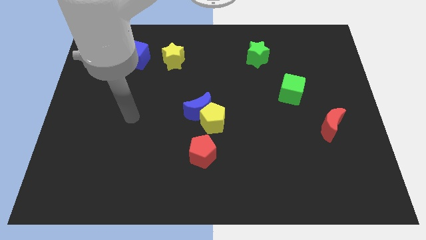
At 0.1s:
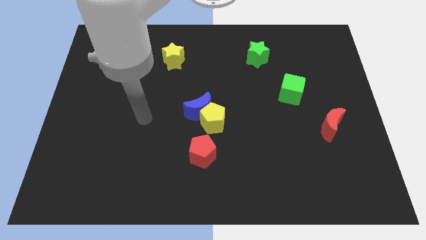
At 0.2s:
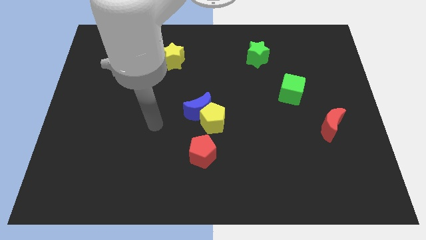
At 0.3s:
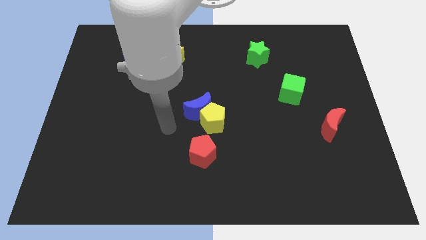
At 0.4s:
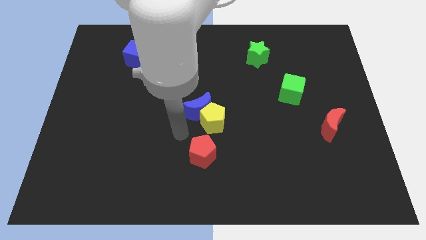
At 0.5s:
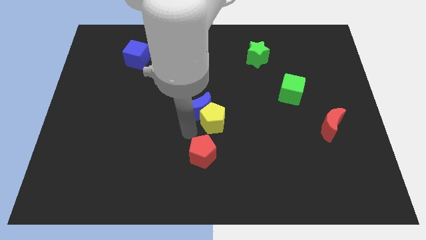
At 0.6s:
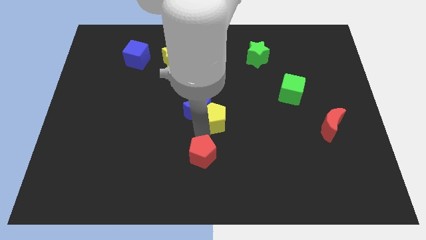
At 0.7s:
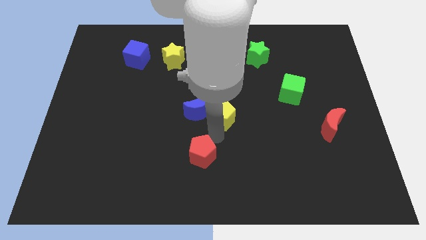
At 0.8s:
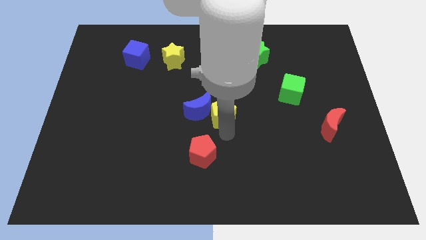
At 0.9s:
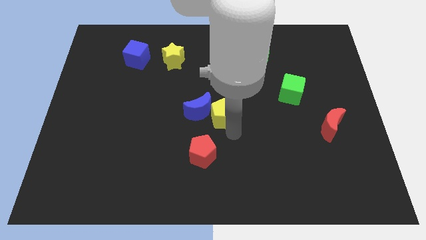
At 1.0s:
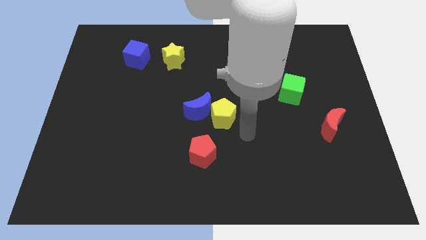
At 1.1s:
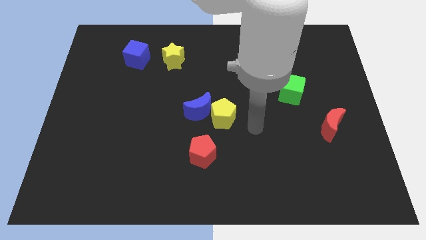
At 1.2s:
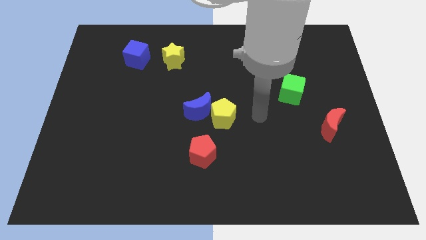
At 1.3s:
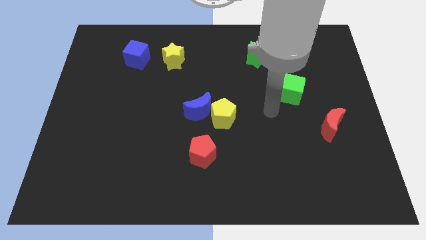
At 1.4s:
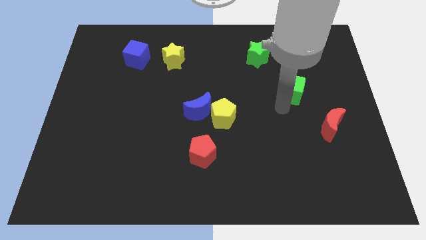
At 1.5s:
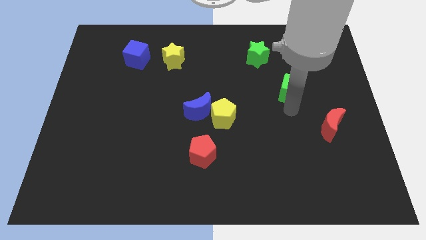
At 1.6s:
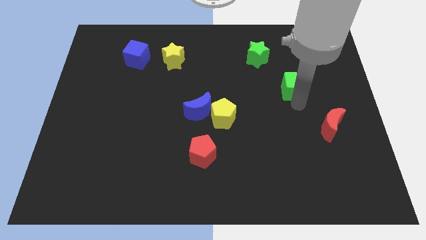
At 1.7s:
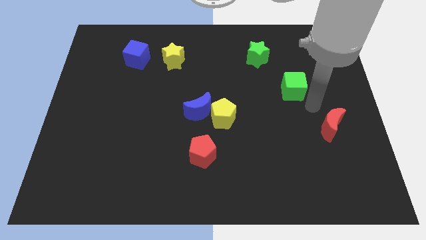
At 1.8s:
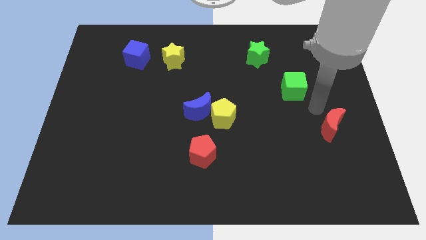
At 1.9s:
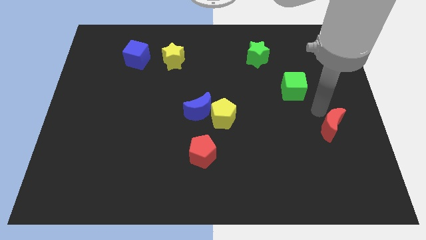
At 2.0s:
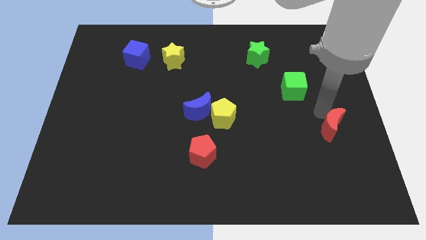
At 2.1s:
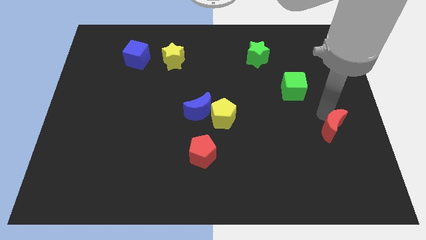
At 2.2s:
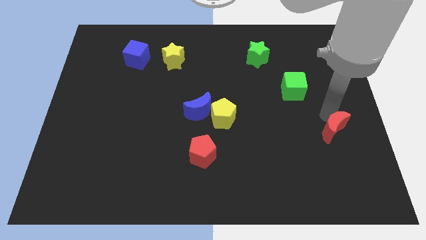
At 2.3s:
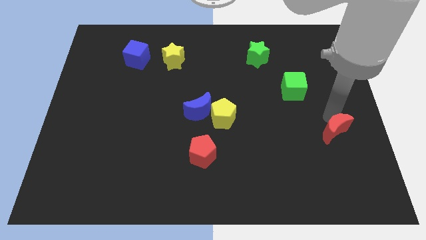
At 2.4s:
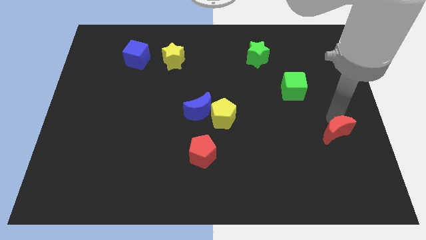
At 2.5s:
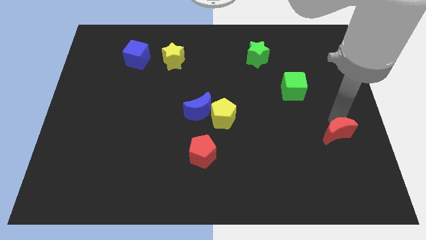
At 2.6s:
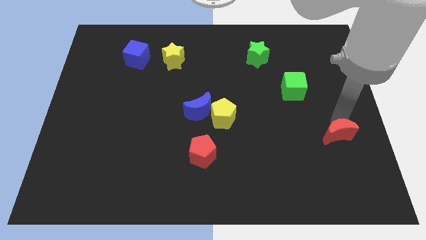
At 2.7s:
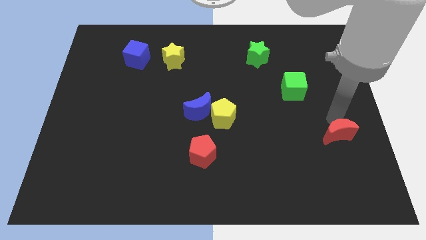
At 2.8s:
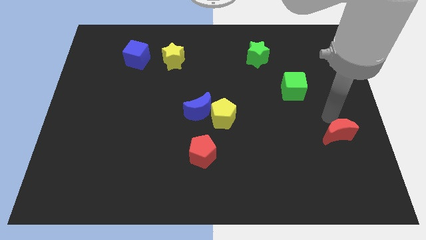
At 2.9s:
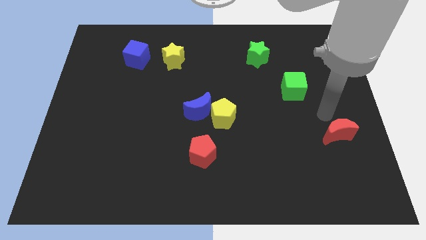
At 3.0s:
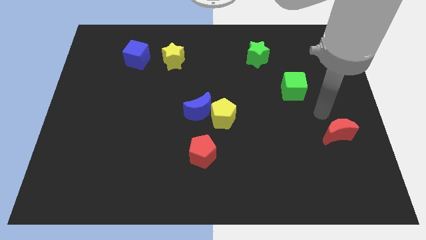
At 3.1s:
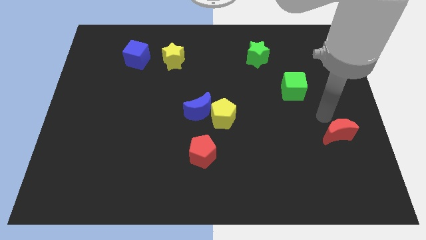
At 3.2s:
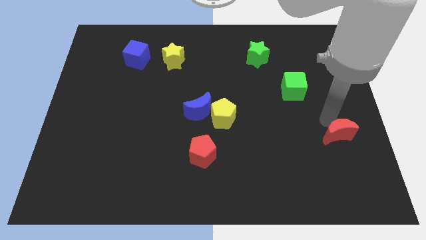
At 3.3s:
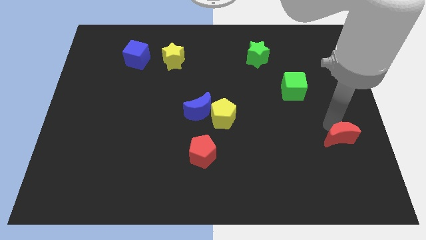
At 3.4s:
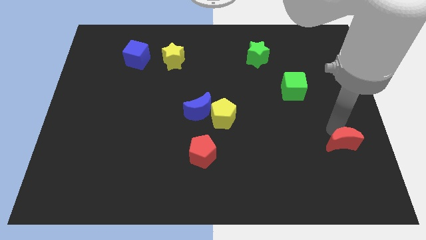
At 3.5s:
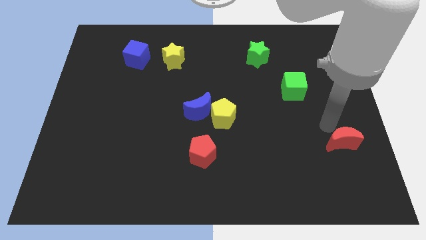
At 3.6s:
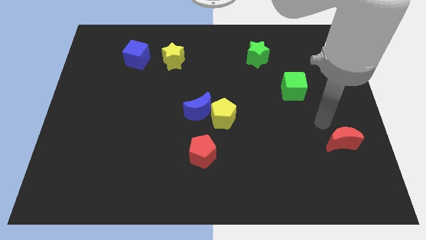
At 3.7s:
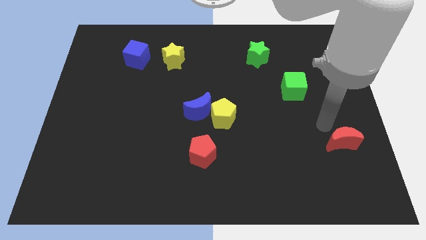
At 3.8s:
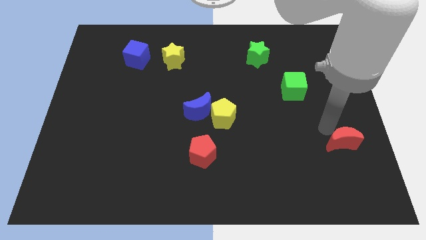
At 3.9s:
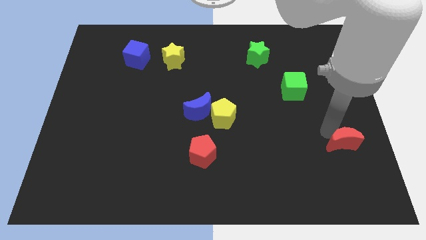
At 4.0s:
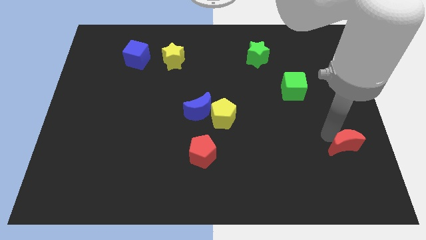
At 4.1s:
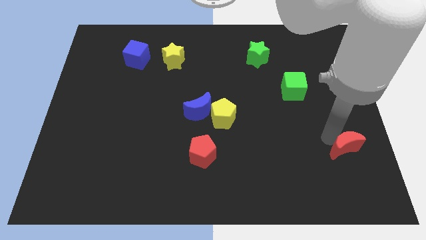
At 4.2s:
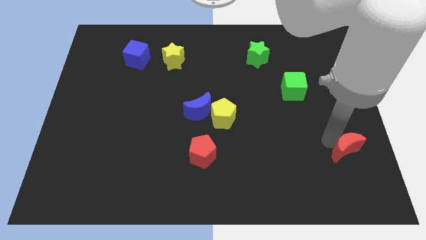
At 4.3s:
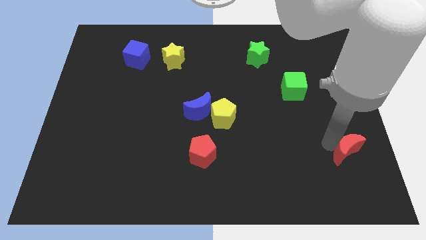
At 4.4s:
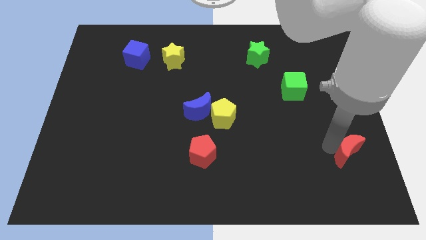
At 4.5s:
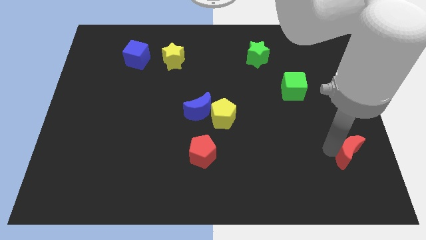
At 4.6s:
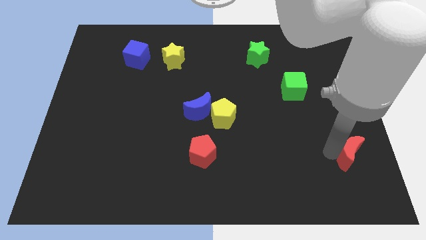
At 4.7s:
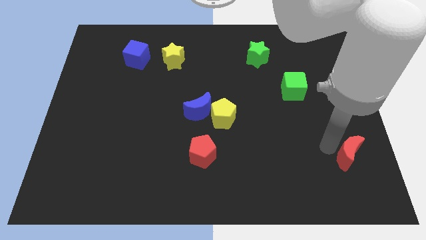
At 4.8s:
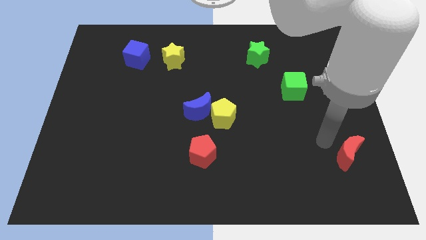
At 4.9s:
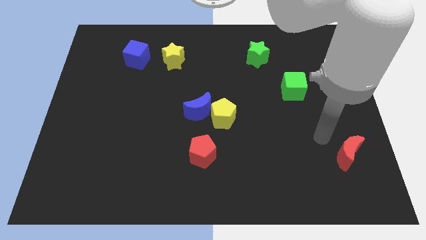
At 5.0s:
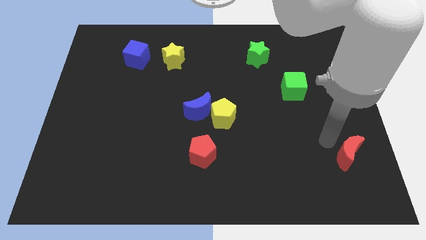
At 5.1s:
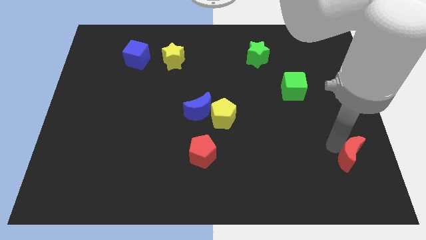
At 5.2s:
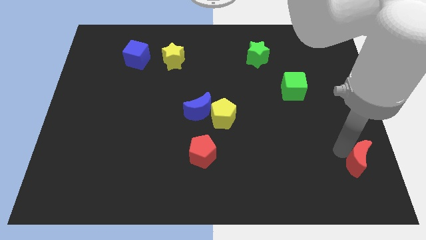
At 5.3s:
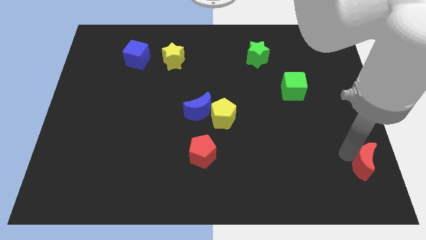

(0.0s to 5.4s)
move the red moon to the bottom right corner
